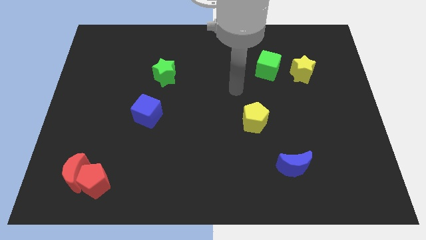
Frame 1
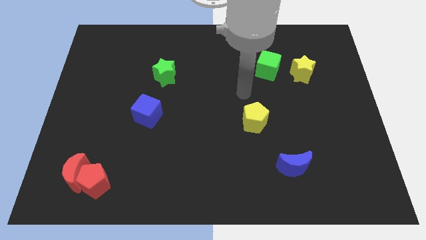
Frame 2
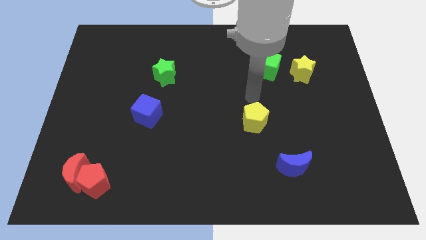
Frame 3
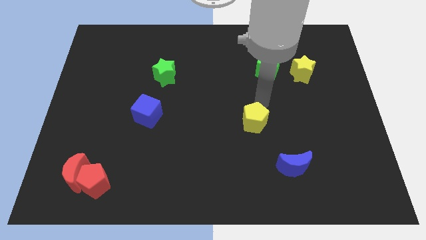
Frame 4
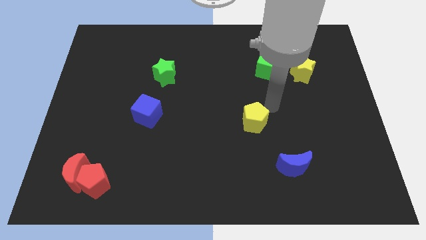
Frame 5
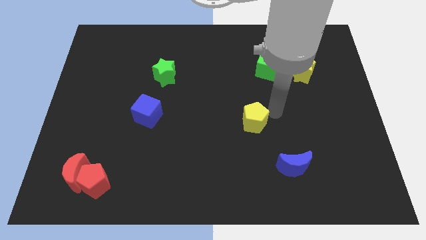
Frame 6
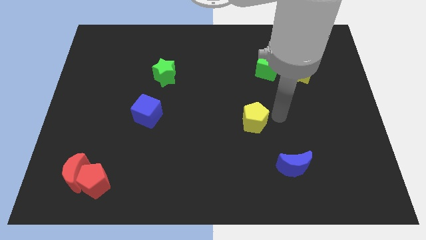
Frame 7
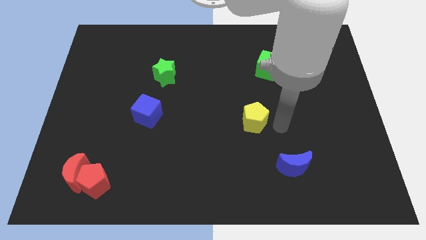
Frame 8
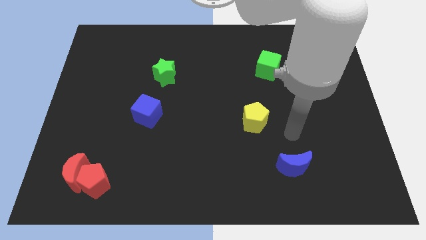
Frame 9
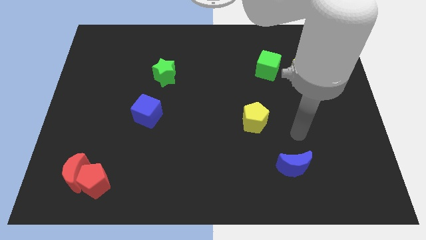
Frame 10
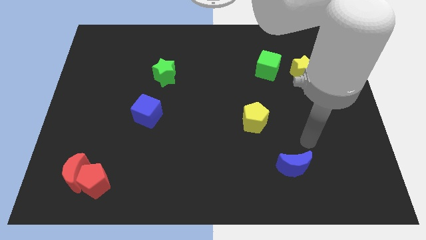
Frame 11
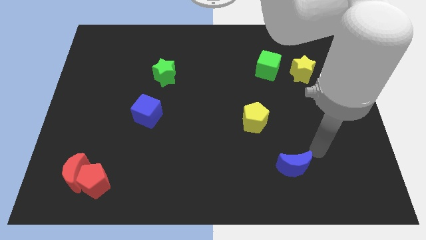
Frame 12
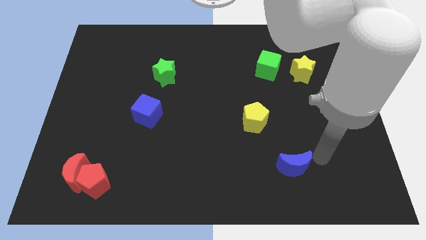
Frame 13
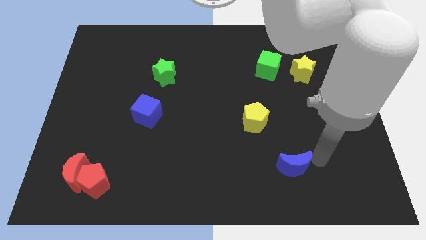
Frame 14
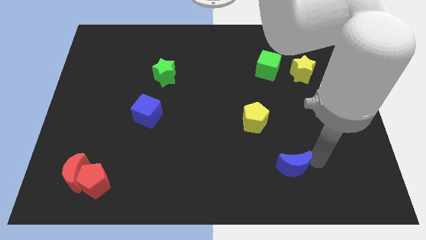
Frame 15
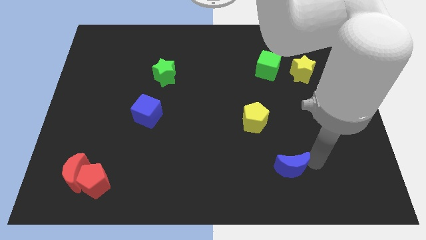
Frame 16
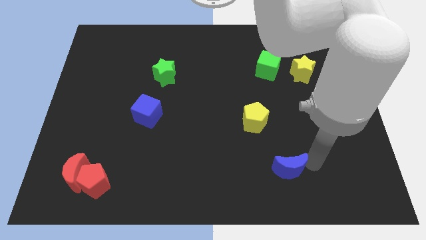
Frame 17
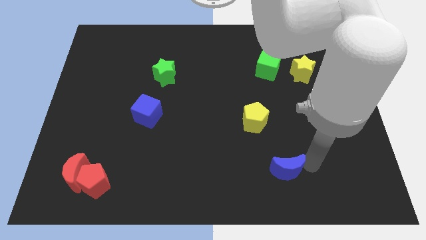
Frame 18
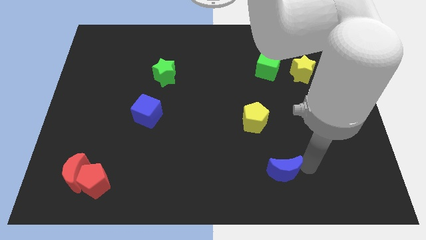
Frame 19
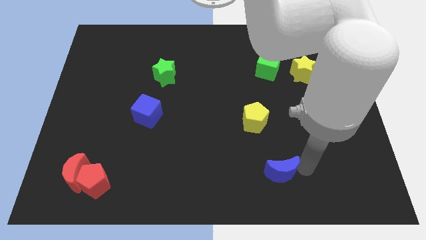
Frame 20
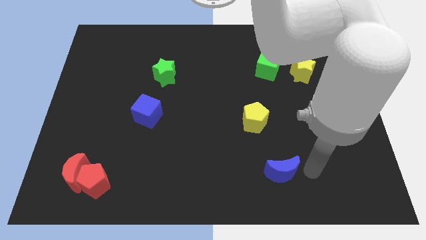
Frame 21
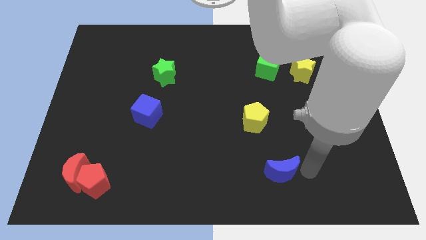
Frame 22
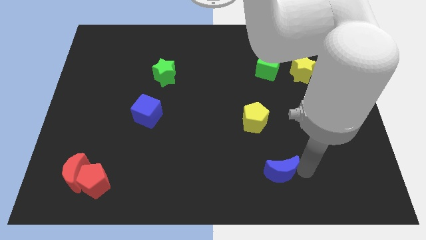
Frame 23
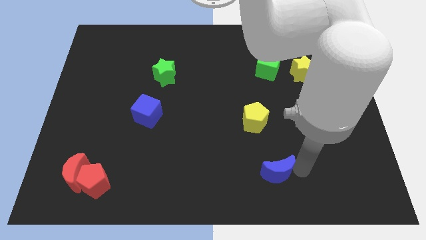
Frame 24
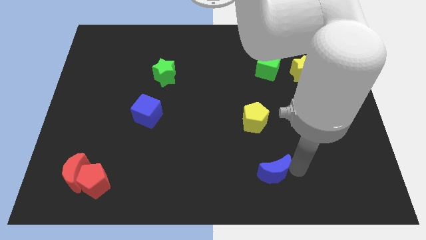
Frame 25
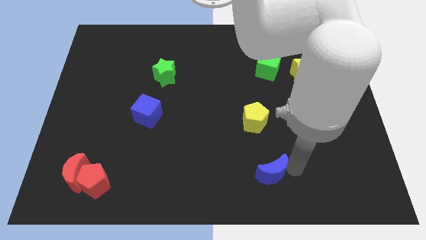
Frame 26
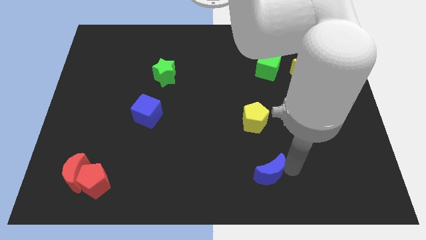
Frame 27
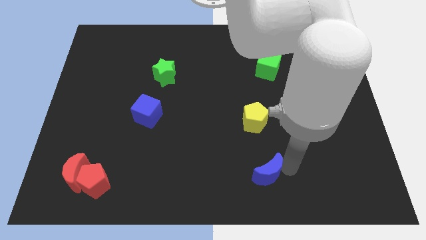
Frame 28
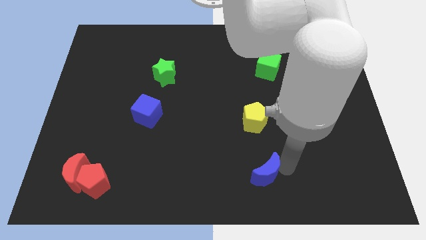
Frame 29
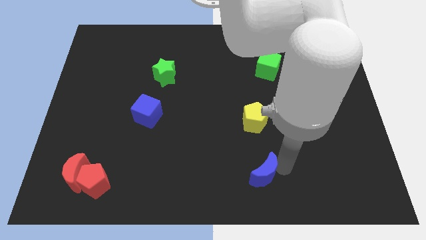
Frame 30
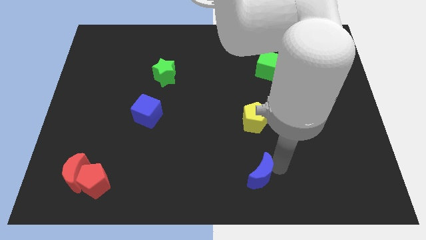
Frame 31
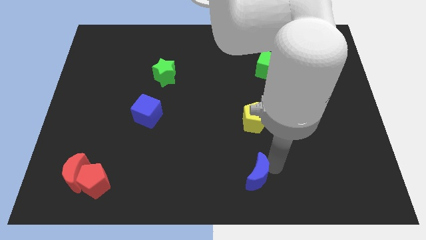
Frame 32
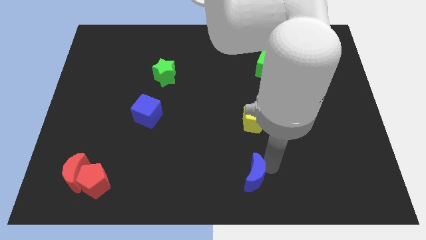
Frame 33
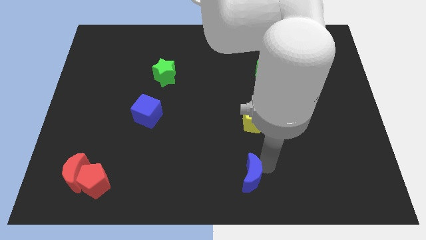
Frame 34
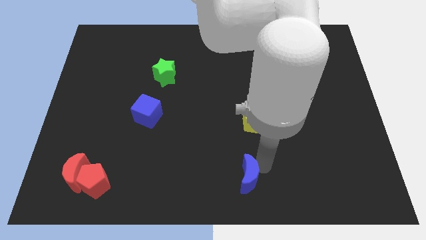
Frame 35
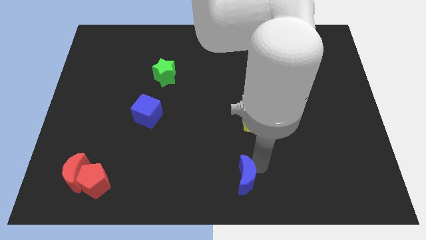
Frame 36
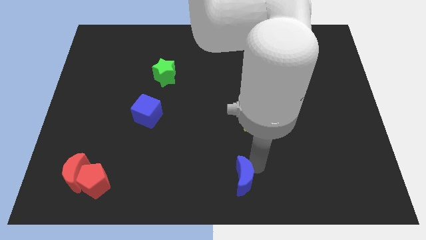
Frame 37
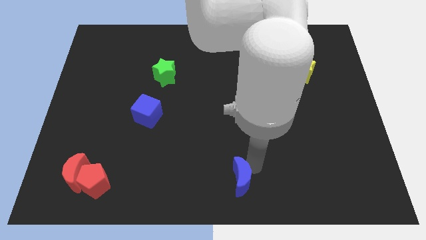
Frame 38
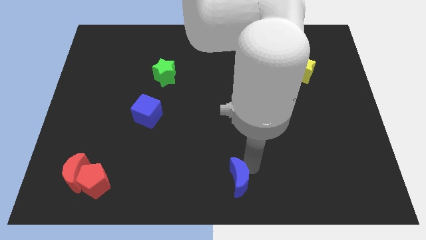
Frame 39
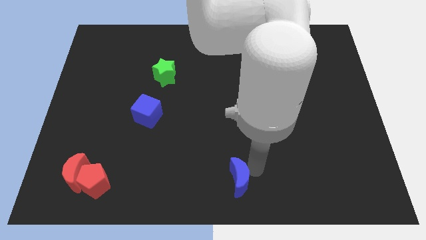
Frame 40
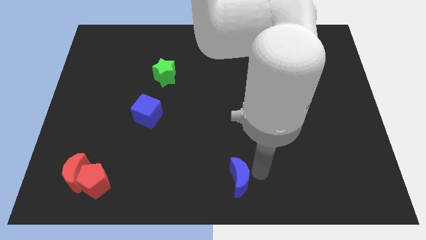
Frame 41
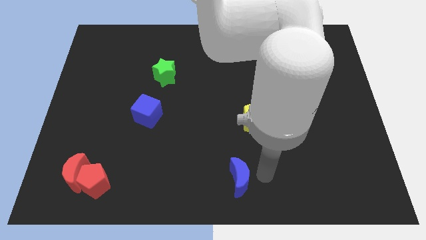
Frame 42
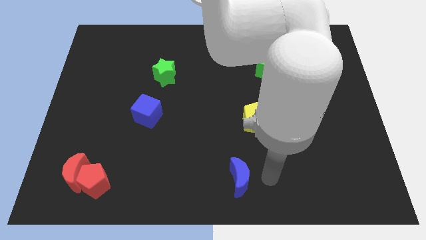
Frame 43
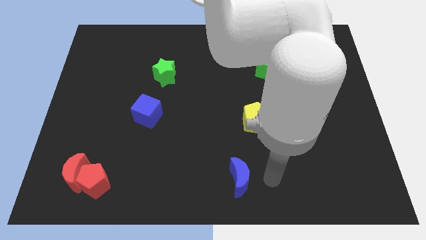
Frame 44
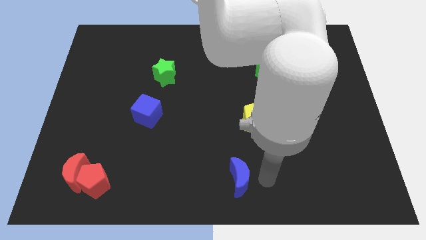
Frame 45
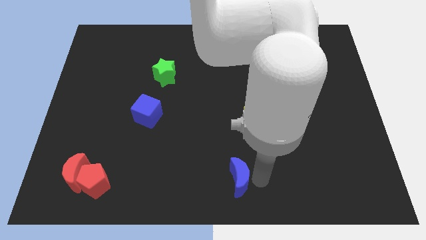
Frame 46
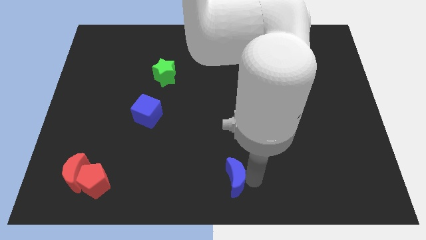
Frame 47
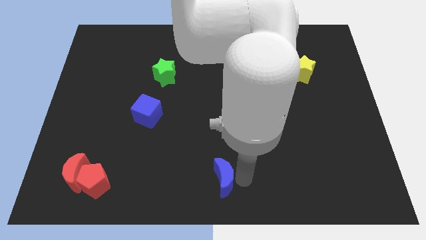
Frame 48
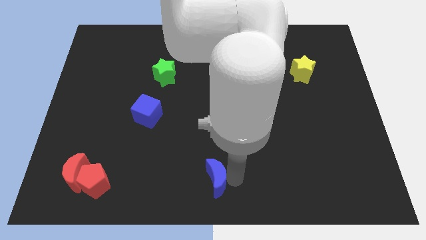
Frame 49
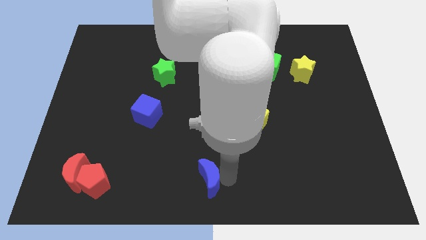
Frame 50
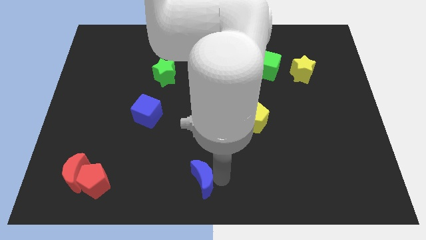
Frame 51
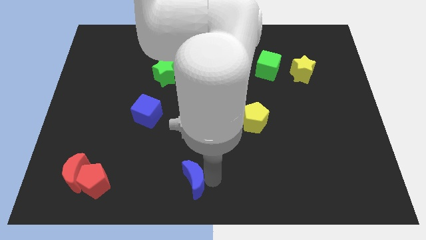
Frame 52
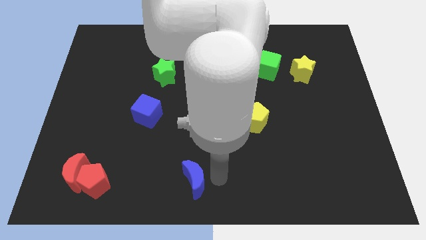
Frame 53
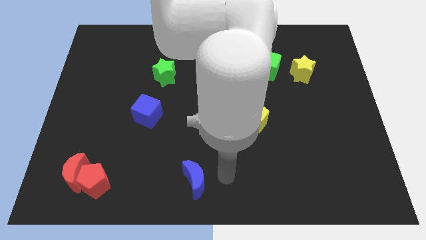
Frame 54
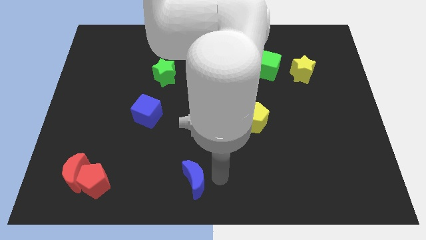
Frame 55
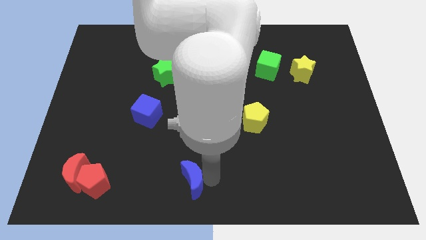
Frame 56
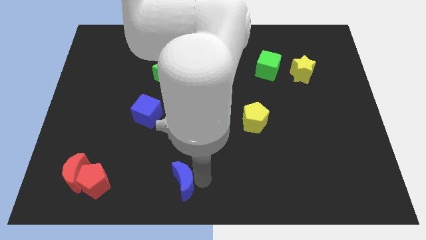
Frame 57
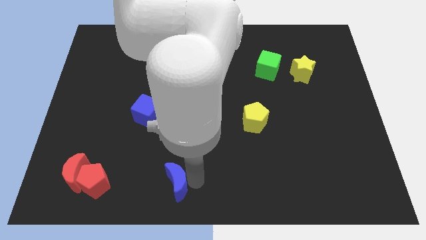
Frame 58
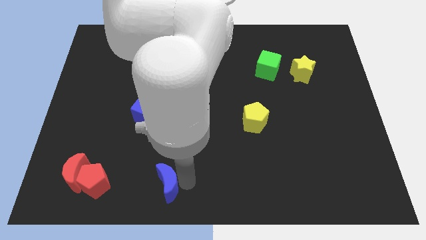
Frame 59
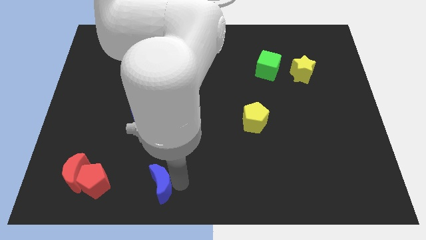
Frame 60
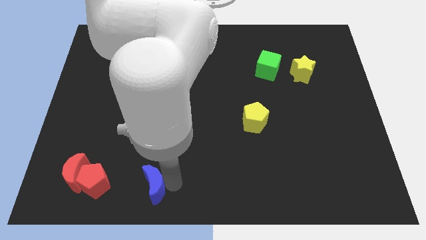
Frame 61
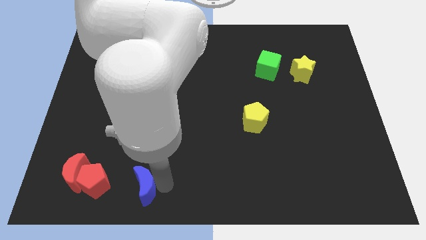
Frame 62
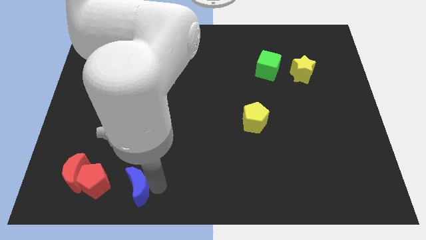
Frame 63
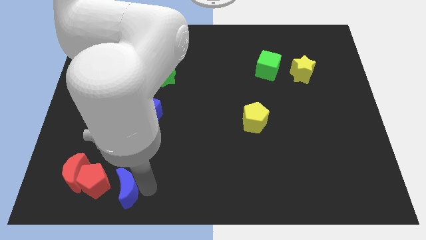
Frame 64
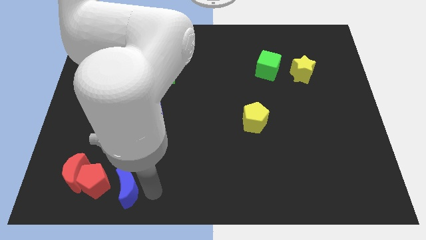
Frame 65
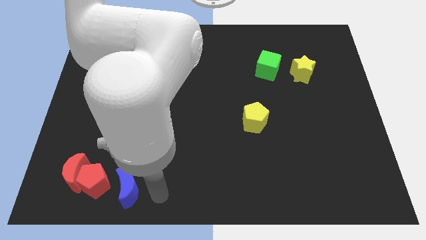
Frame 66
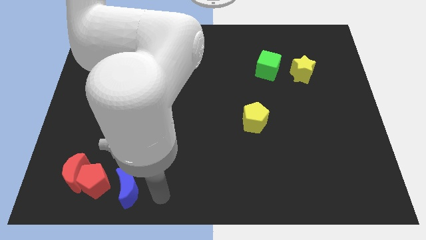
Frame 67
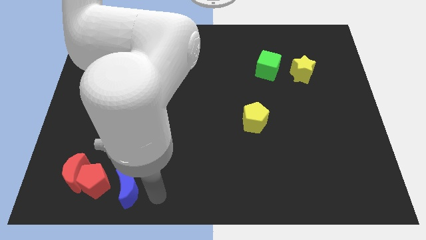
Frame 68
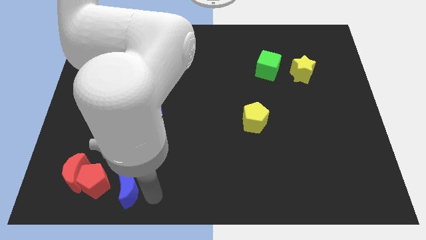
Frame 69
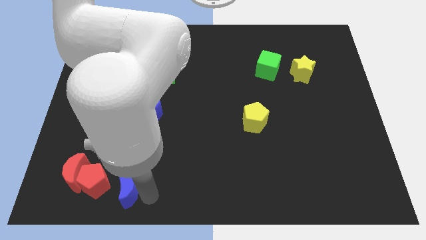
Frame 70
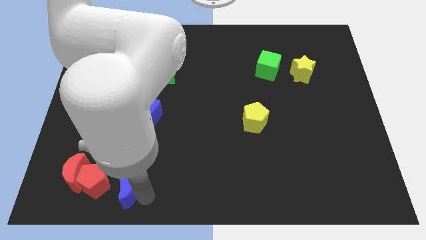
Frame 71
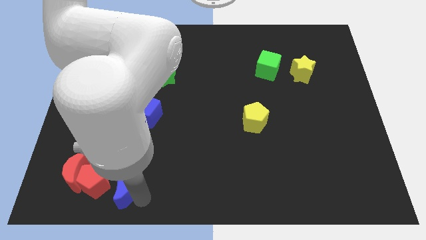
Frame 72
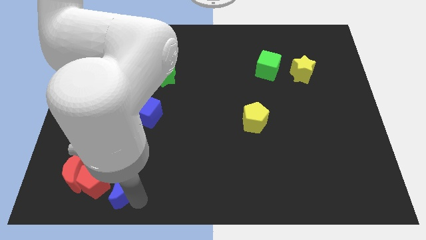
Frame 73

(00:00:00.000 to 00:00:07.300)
move the blue moon to the red pentagon
